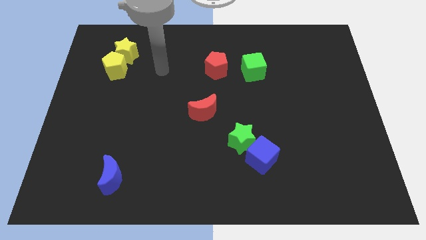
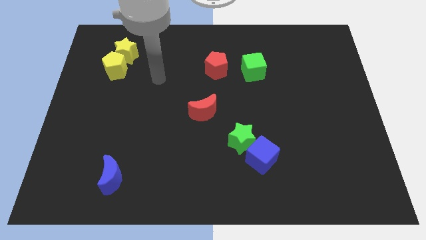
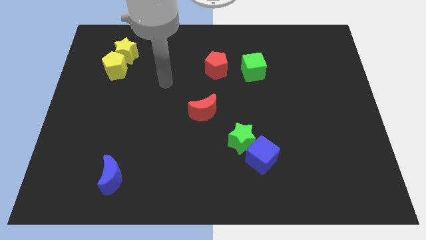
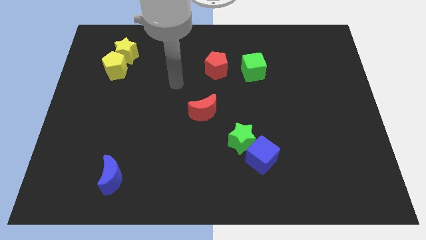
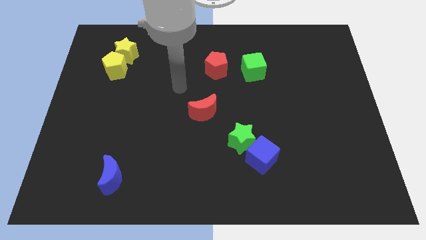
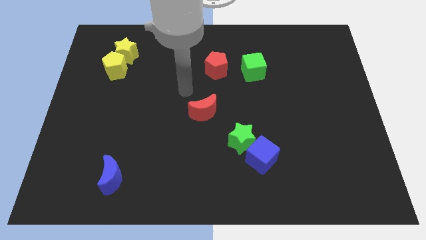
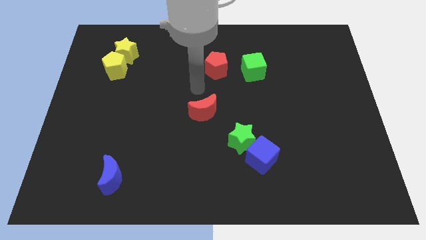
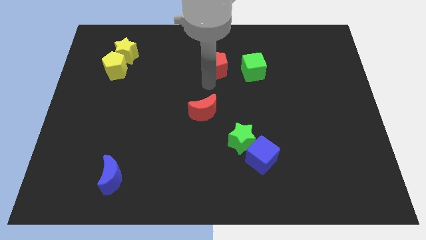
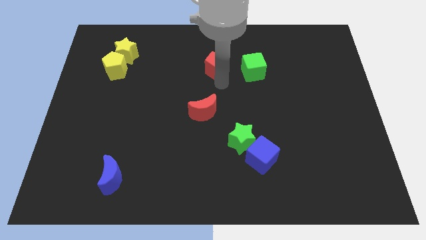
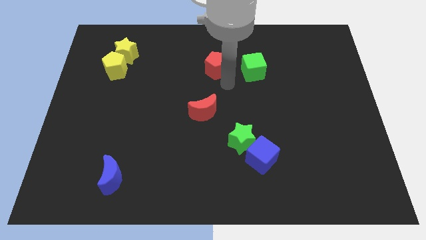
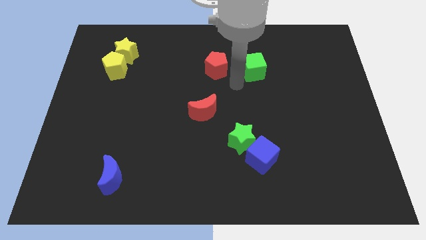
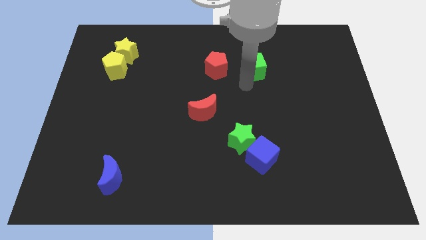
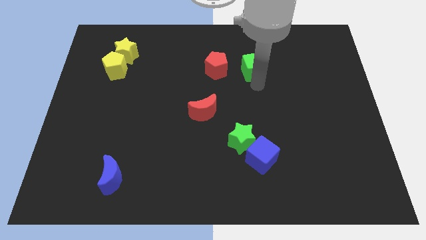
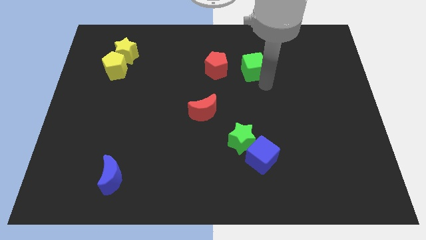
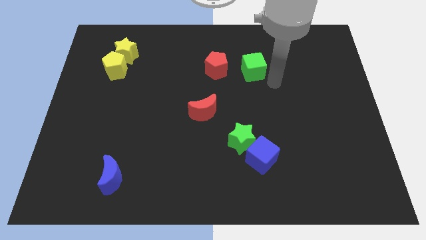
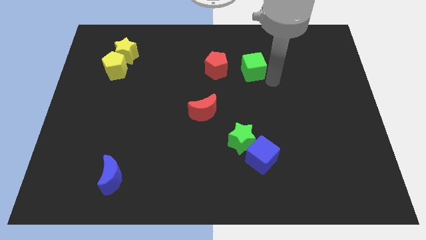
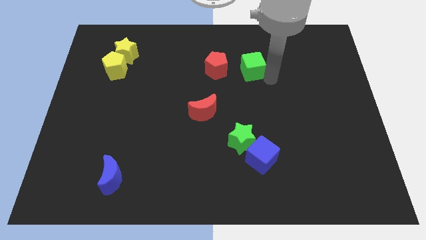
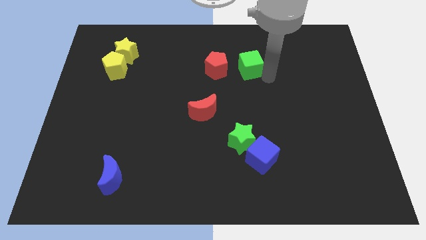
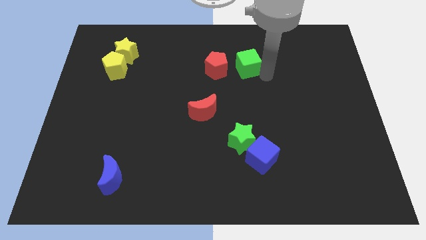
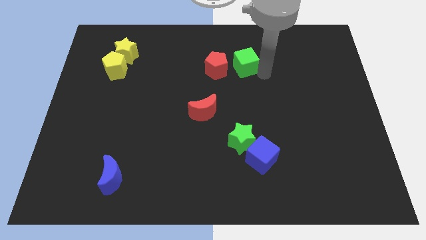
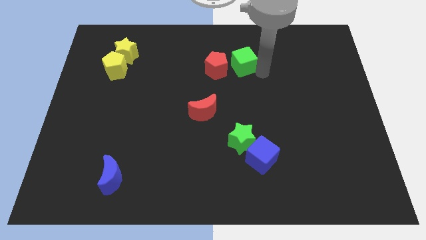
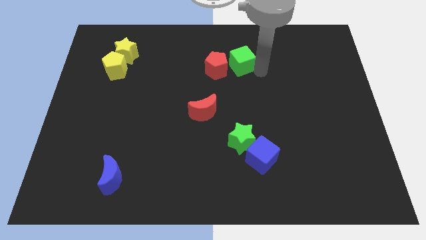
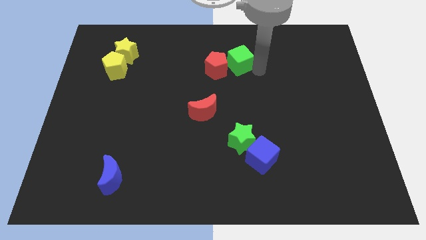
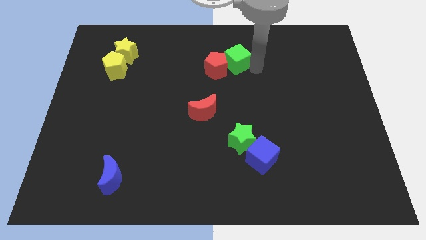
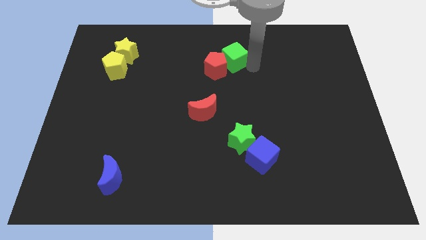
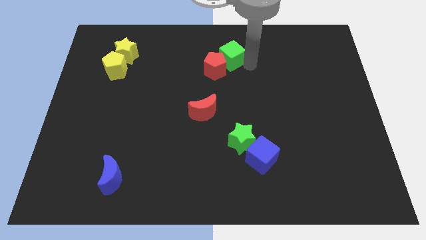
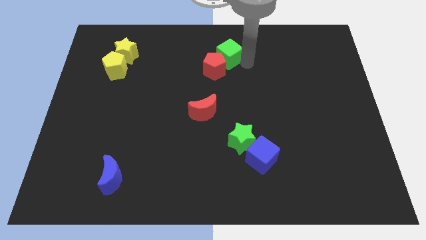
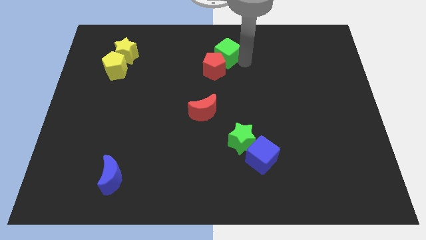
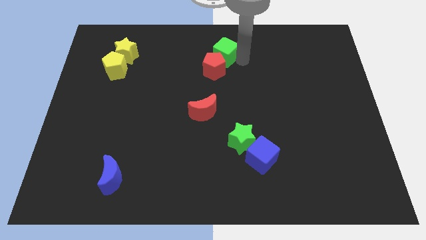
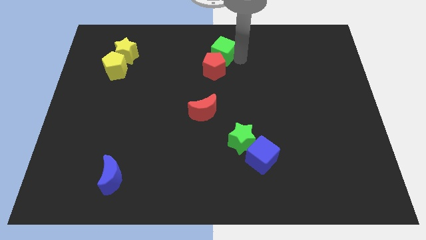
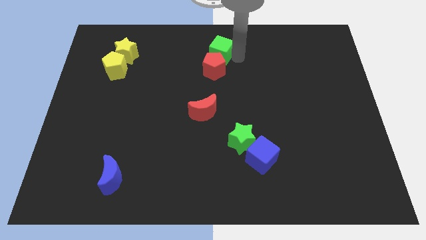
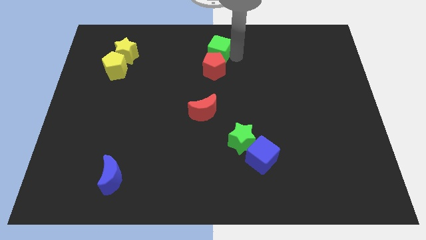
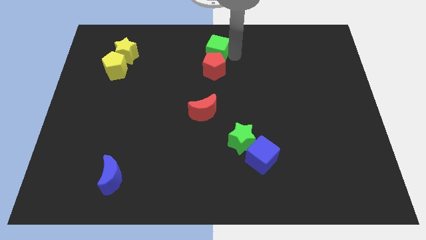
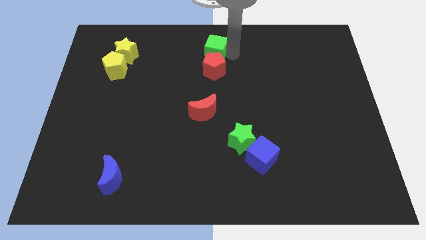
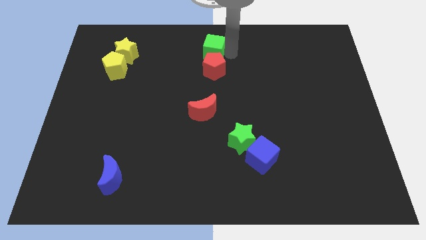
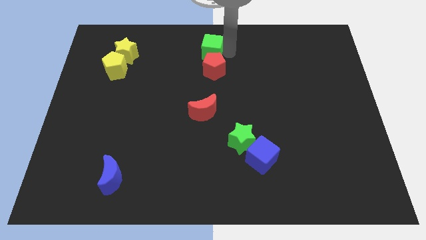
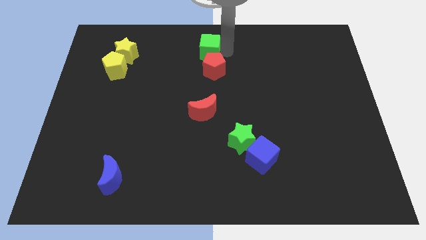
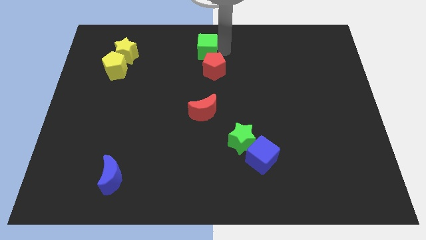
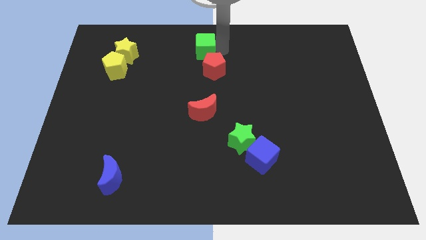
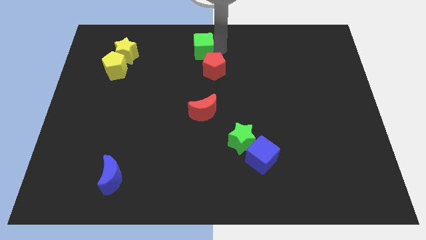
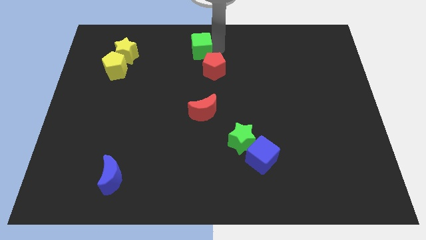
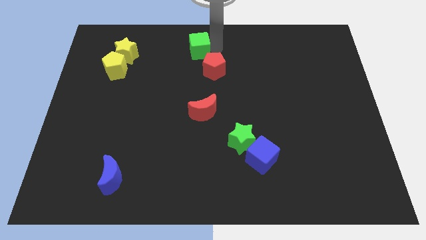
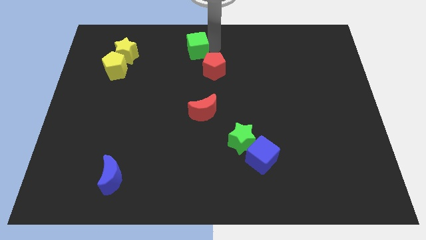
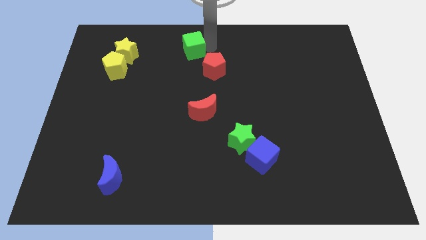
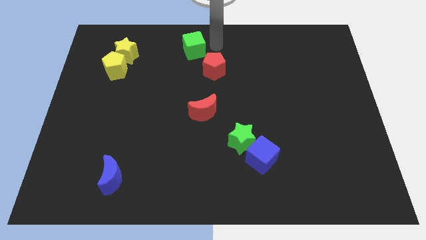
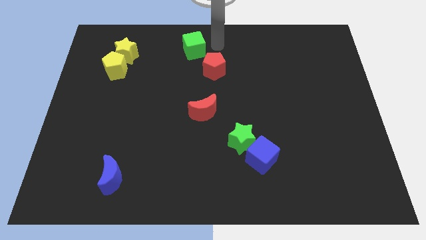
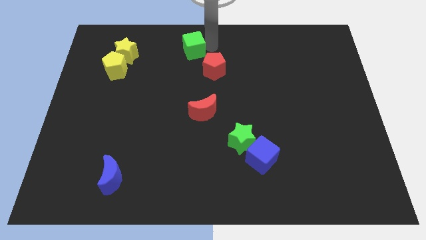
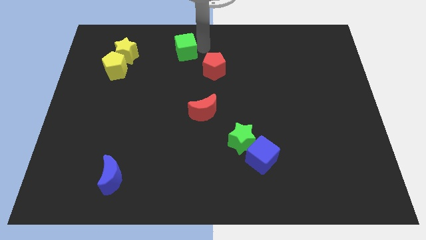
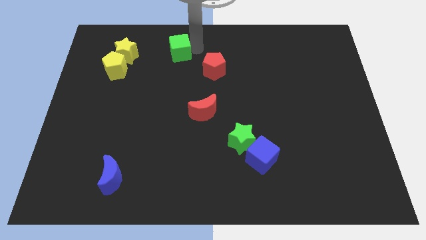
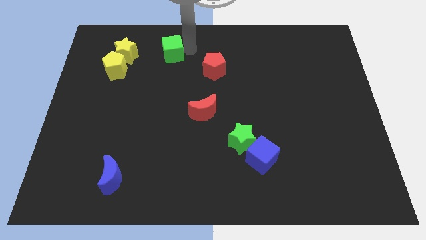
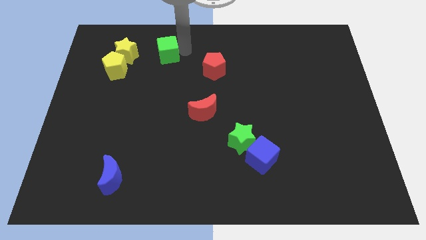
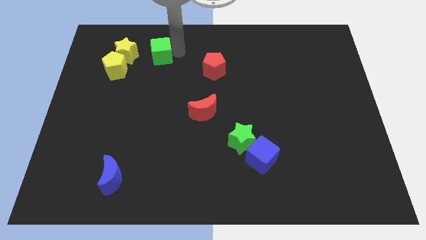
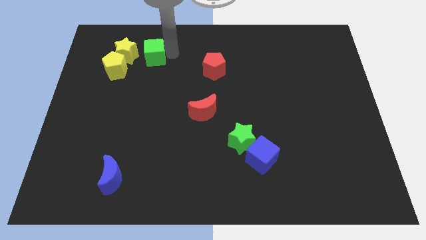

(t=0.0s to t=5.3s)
move the green cube diagonally up and to the right of the yellow pentagon

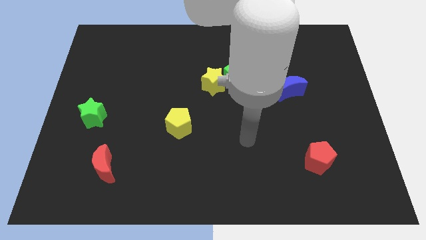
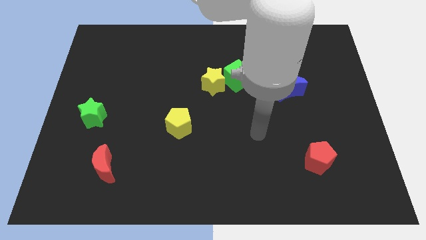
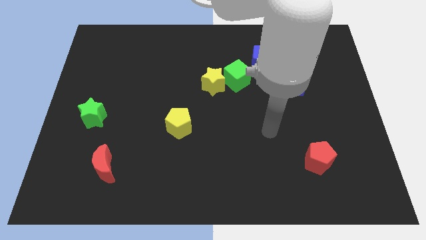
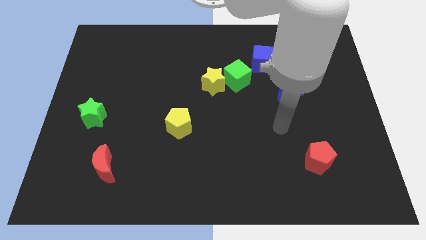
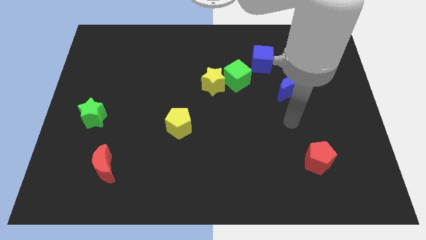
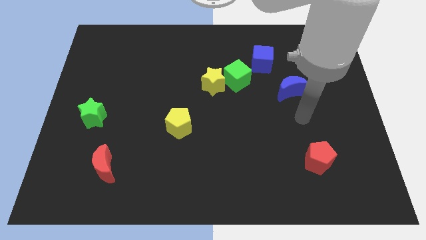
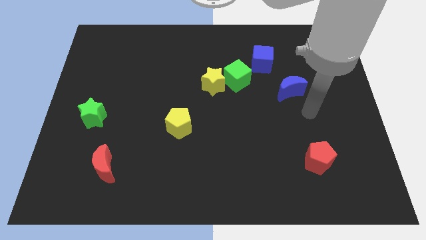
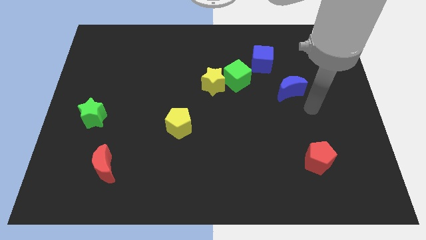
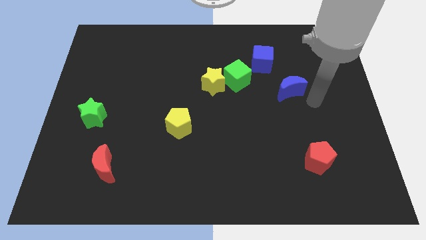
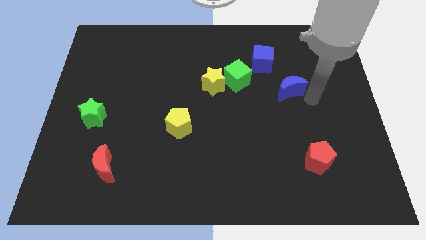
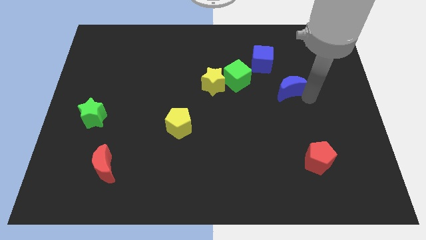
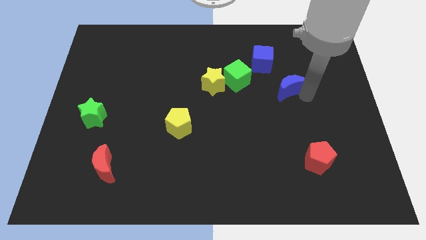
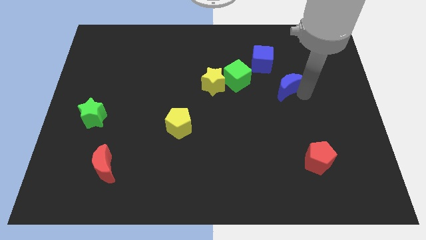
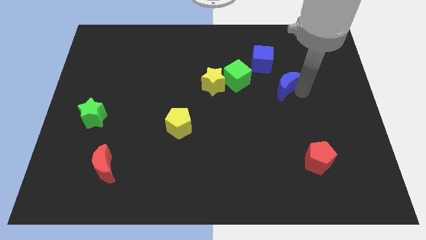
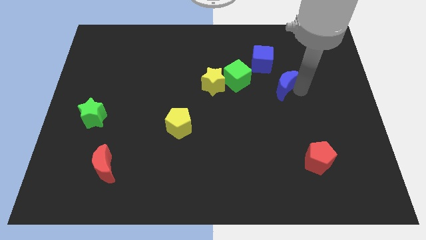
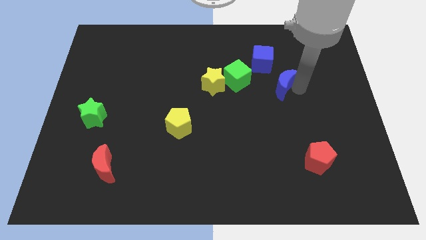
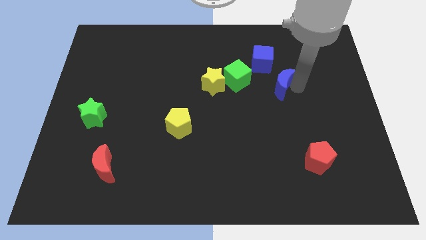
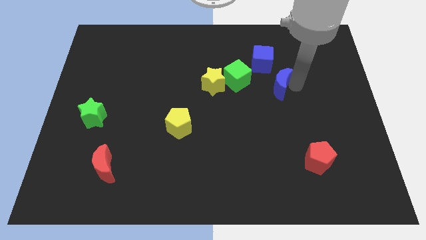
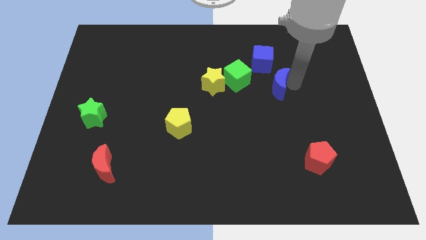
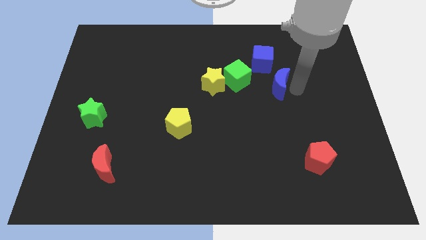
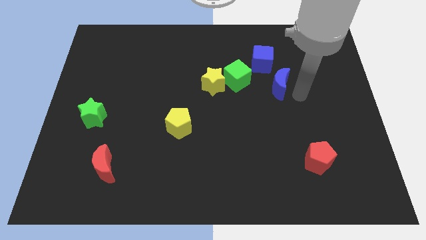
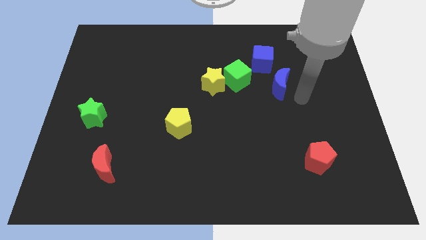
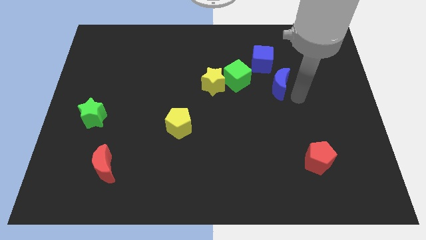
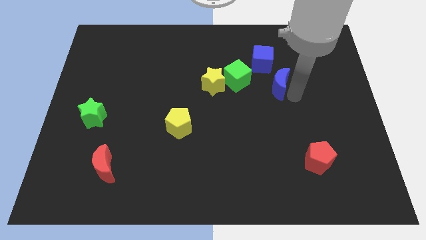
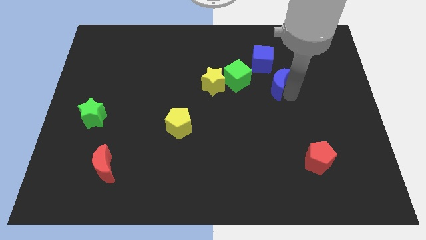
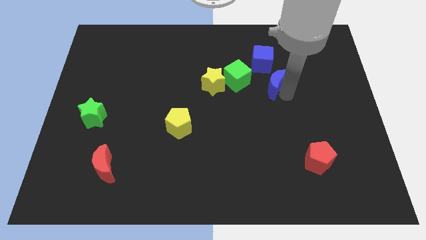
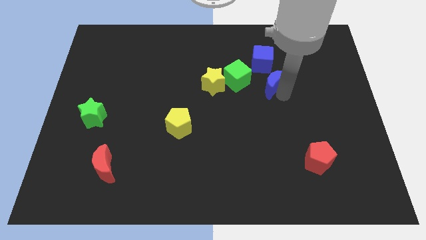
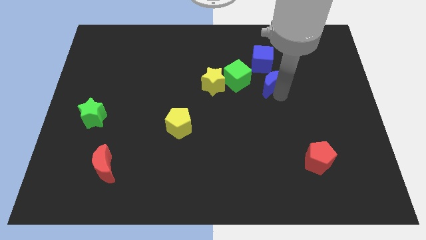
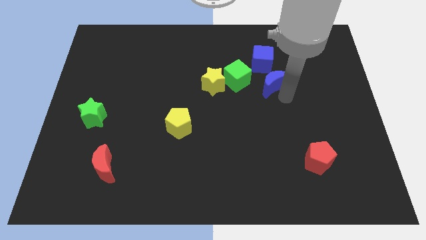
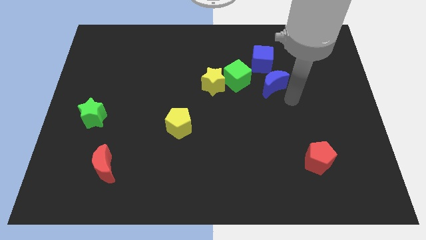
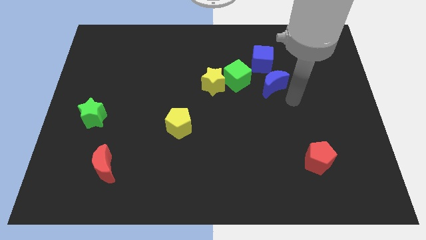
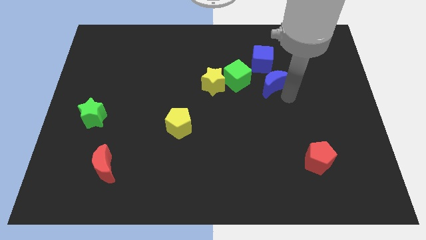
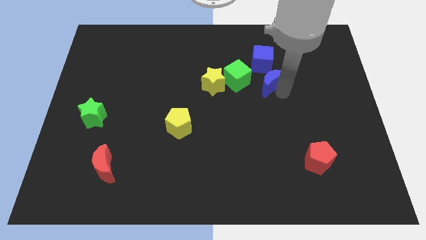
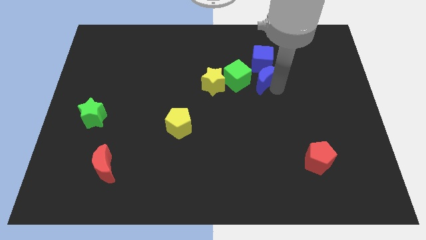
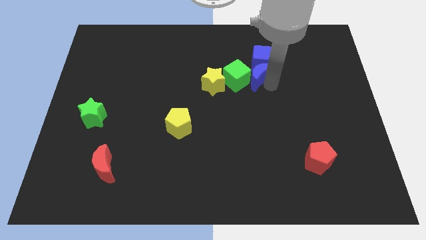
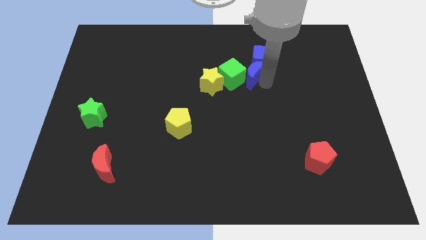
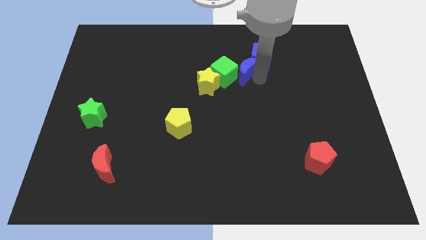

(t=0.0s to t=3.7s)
push the blue moon left of the blue cube
